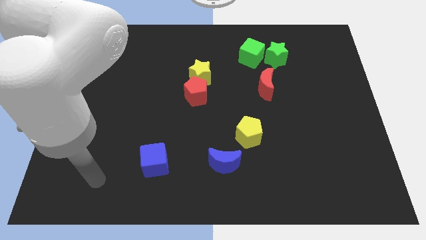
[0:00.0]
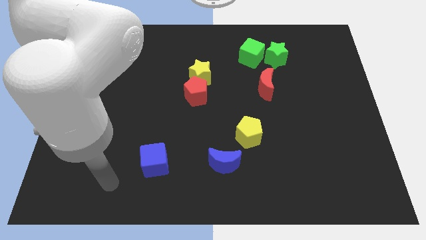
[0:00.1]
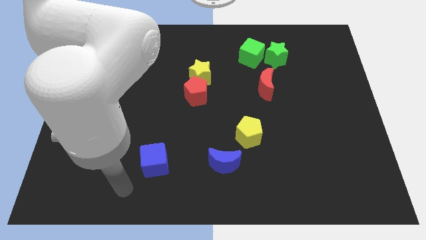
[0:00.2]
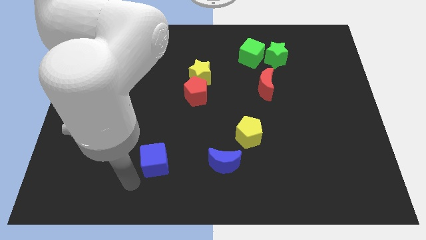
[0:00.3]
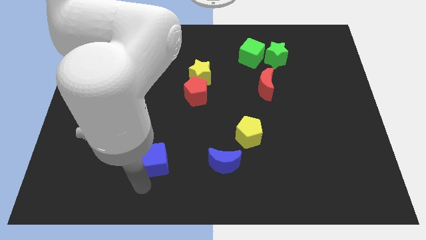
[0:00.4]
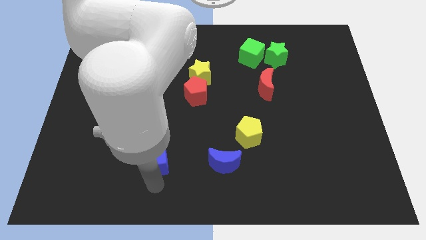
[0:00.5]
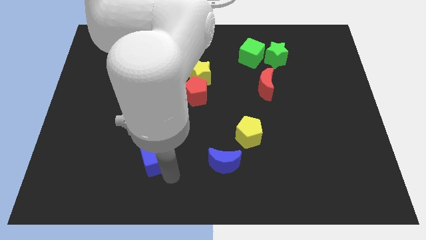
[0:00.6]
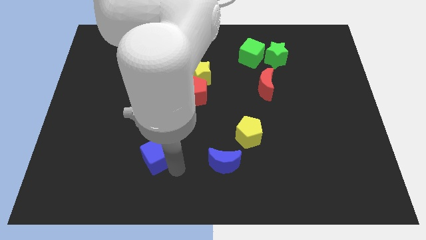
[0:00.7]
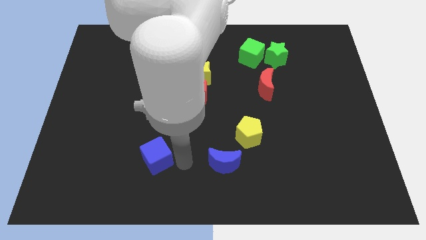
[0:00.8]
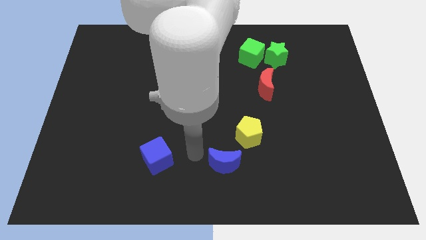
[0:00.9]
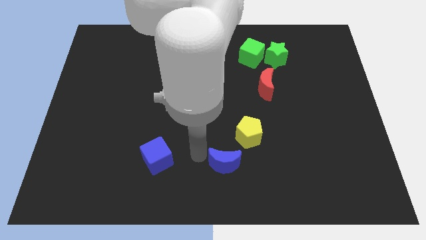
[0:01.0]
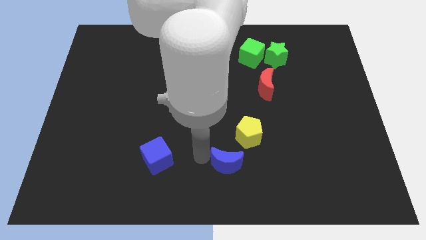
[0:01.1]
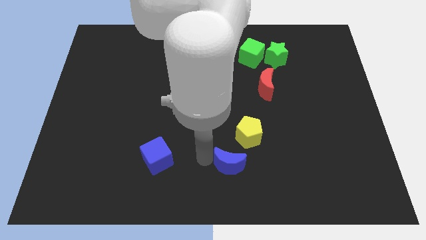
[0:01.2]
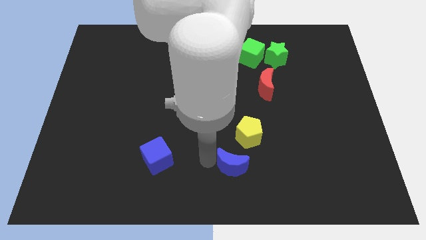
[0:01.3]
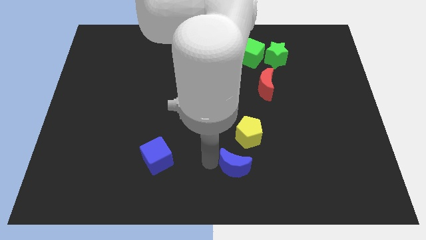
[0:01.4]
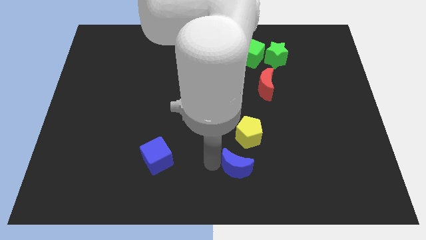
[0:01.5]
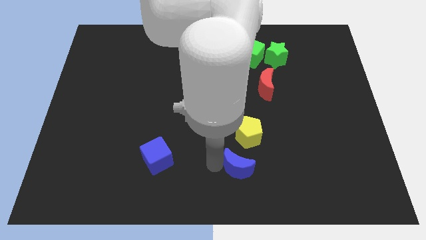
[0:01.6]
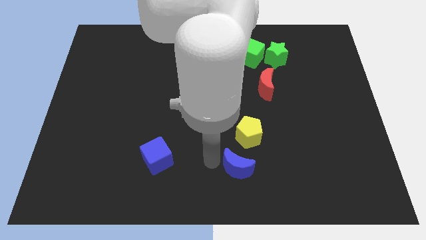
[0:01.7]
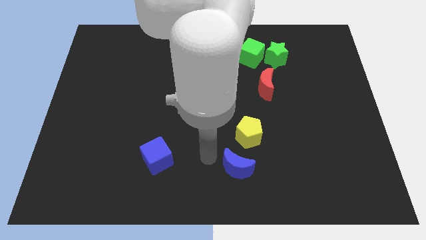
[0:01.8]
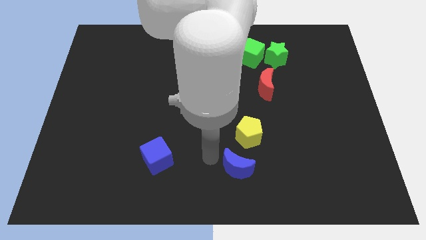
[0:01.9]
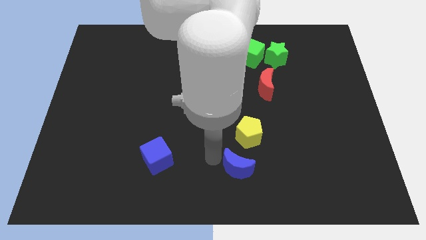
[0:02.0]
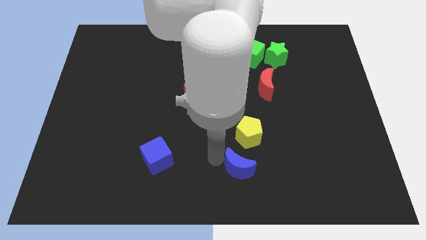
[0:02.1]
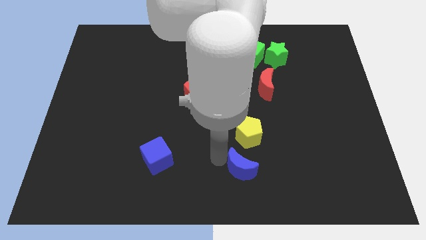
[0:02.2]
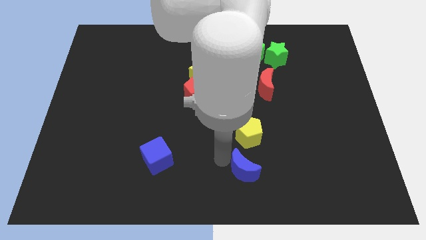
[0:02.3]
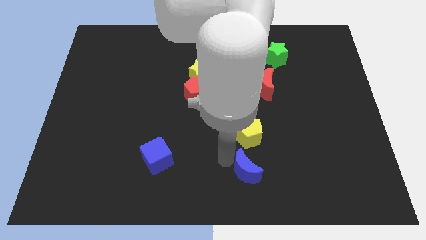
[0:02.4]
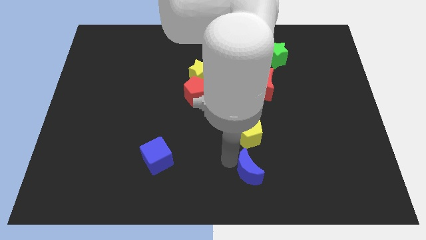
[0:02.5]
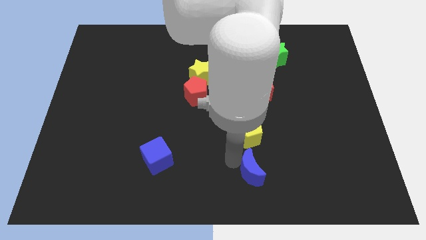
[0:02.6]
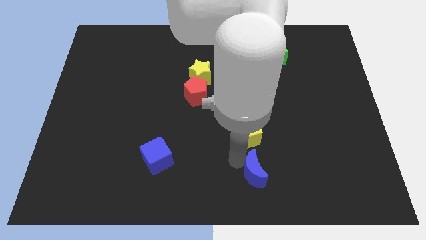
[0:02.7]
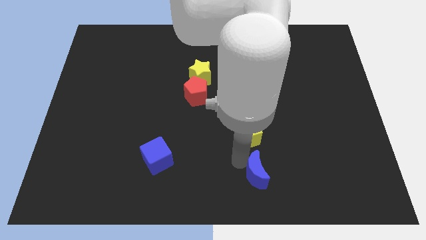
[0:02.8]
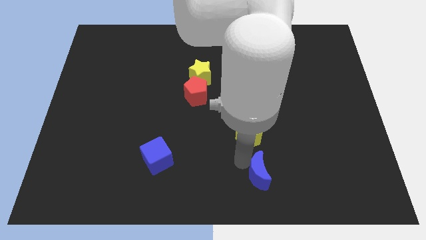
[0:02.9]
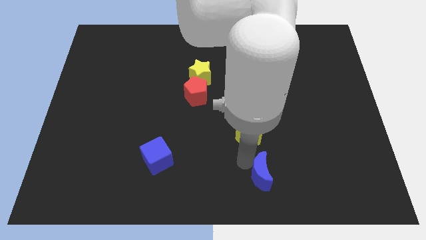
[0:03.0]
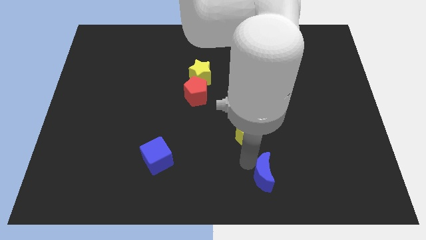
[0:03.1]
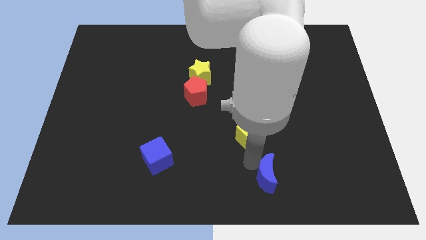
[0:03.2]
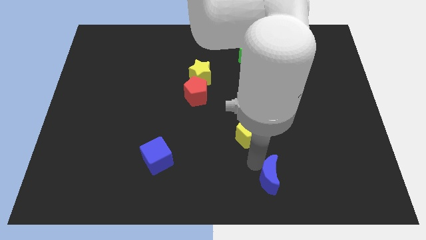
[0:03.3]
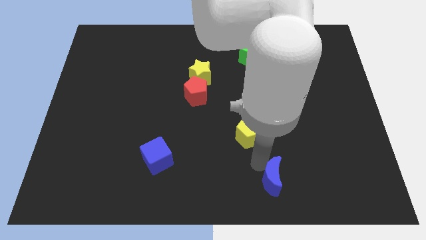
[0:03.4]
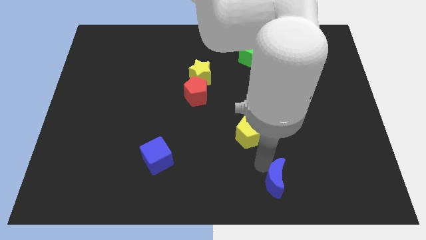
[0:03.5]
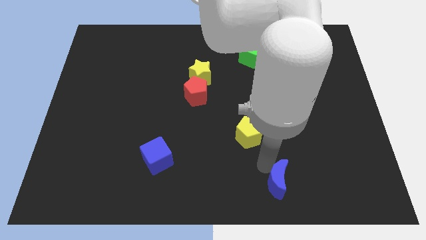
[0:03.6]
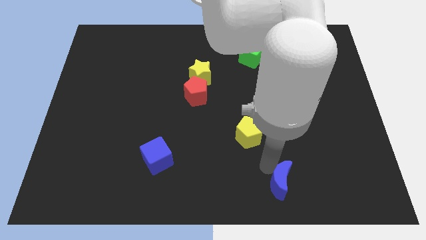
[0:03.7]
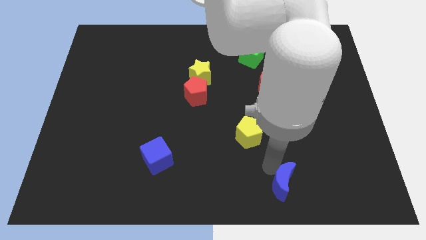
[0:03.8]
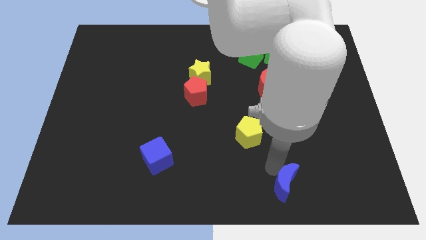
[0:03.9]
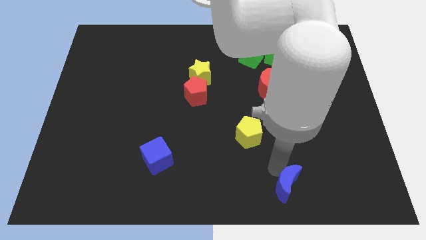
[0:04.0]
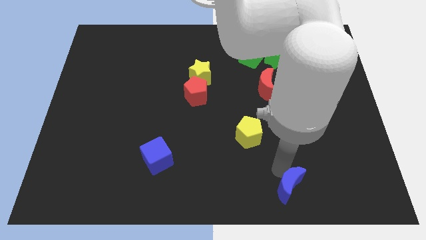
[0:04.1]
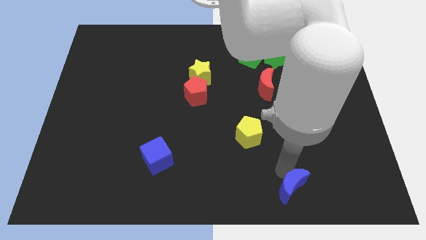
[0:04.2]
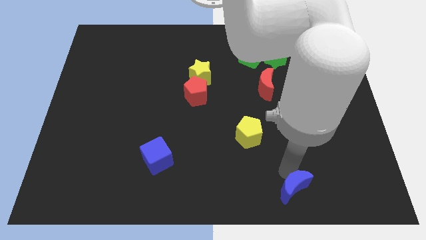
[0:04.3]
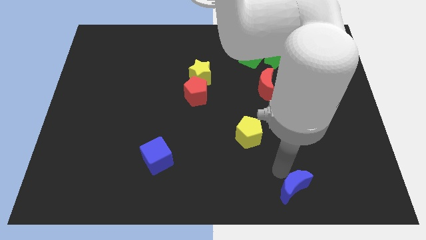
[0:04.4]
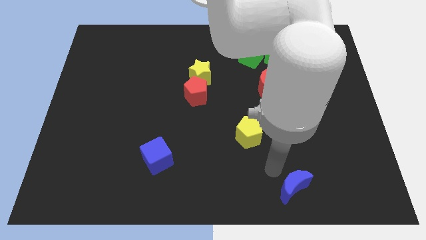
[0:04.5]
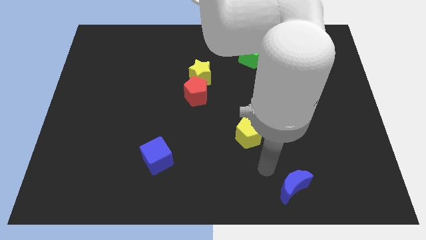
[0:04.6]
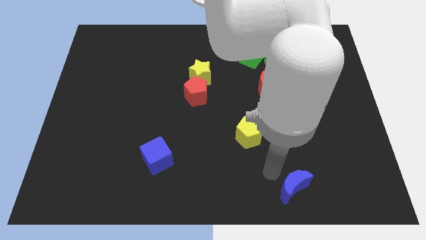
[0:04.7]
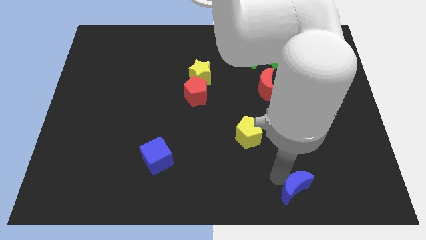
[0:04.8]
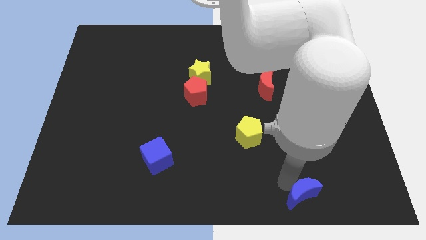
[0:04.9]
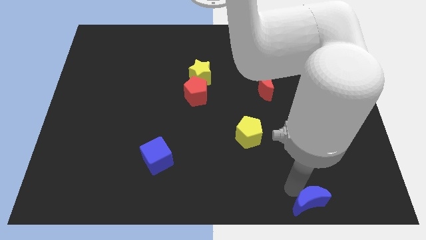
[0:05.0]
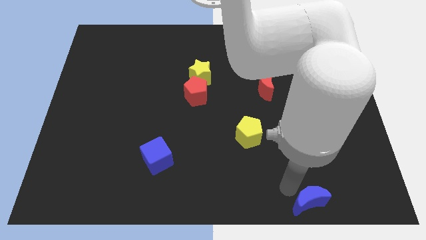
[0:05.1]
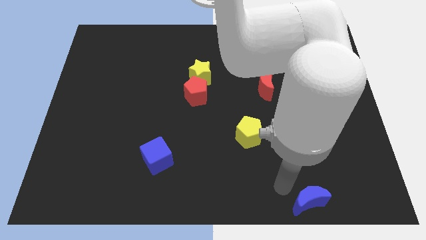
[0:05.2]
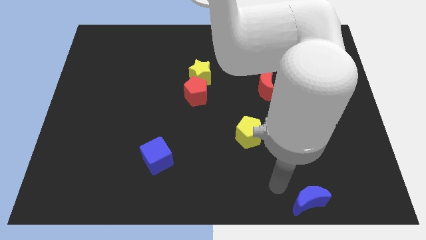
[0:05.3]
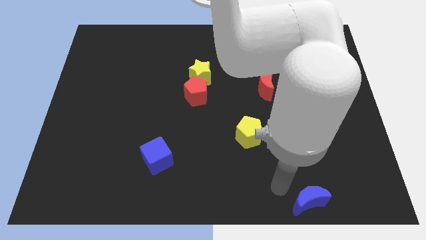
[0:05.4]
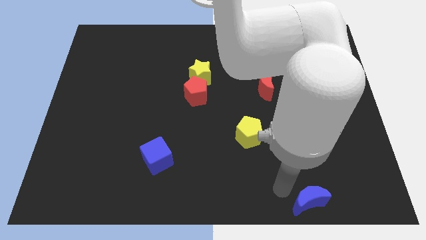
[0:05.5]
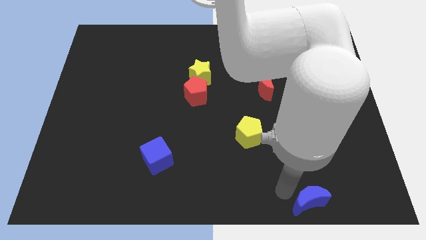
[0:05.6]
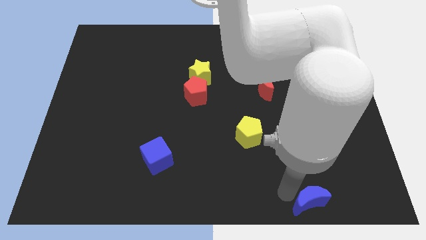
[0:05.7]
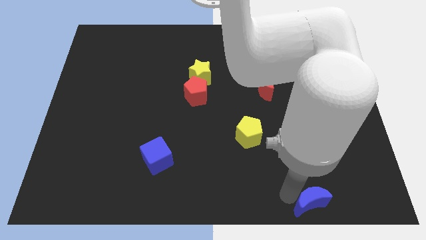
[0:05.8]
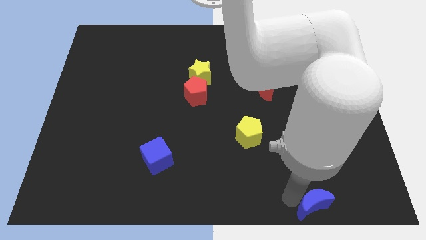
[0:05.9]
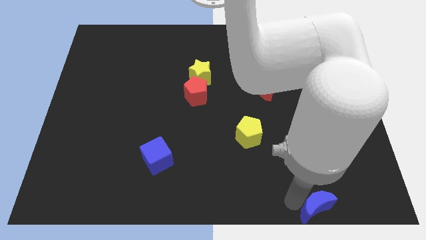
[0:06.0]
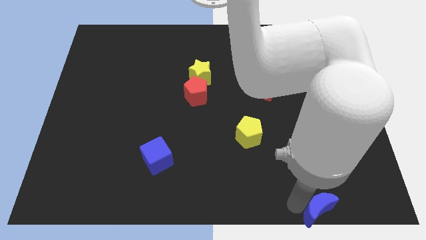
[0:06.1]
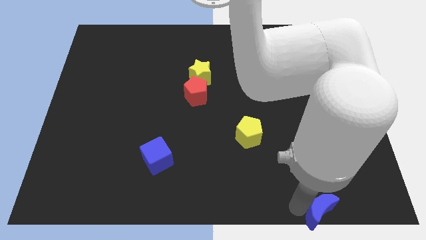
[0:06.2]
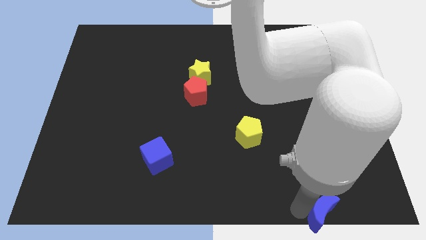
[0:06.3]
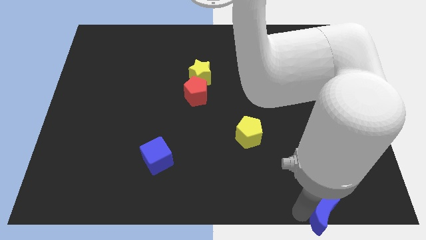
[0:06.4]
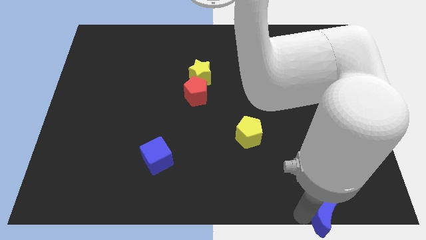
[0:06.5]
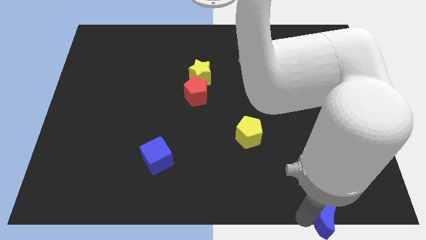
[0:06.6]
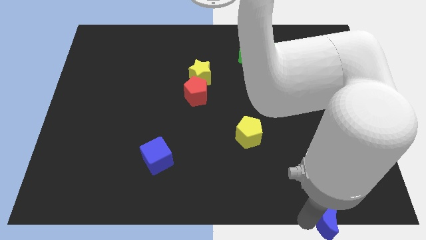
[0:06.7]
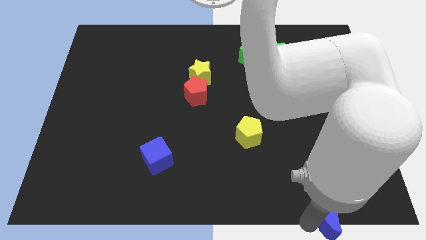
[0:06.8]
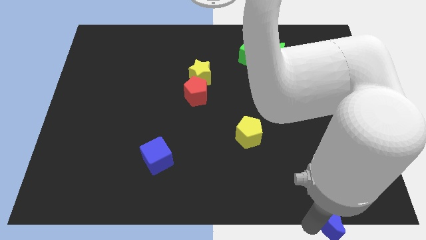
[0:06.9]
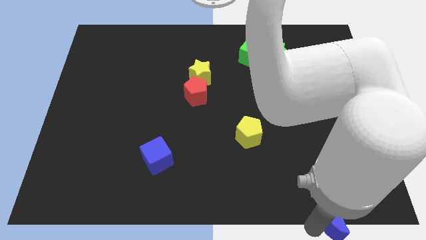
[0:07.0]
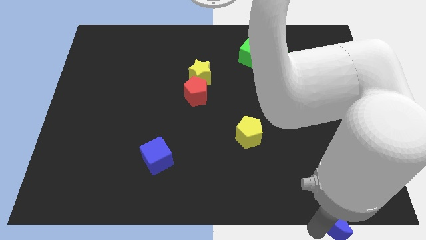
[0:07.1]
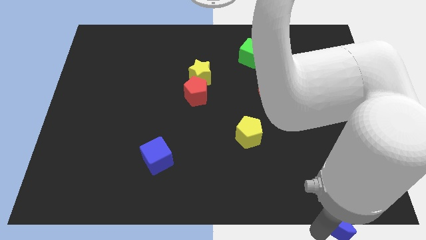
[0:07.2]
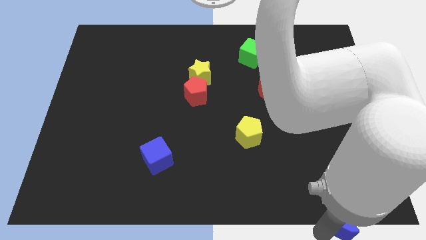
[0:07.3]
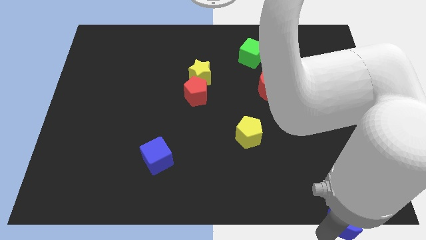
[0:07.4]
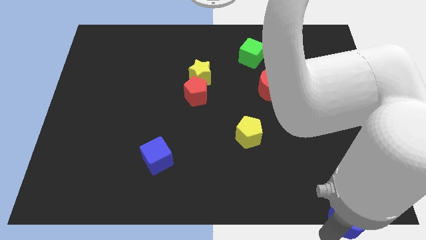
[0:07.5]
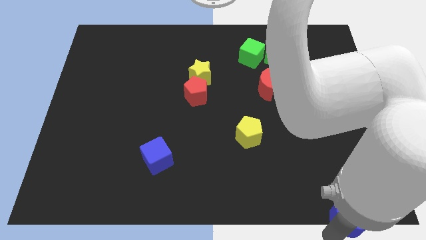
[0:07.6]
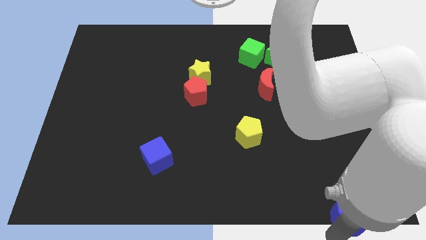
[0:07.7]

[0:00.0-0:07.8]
slide the blue moon to the bottom right of the board
